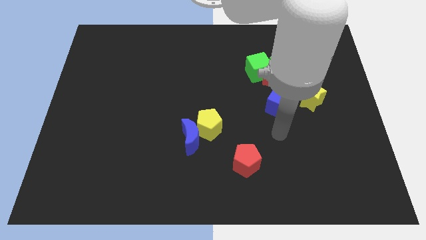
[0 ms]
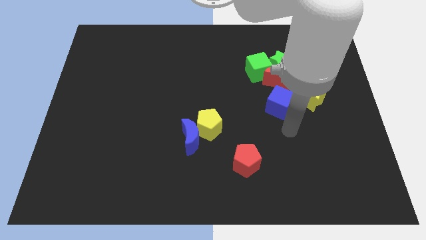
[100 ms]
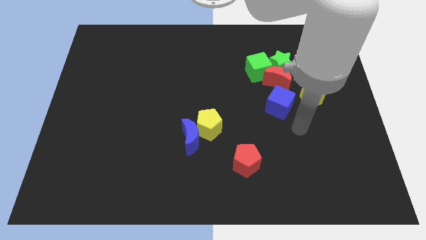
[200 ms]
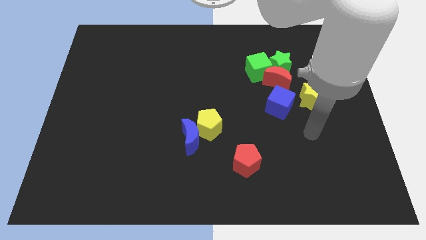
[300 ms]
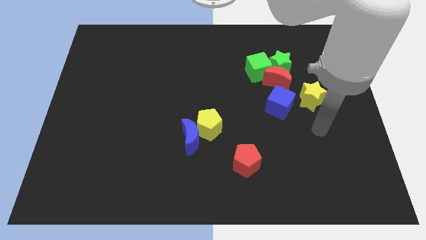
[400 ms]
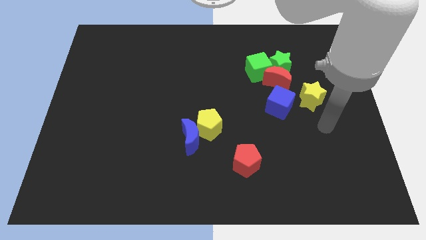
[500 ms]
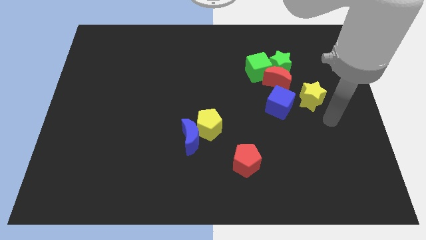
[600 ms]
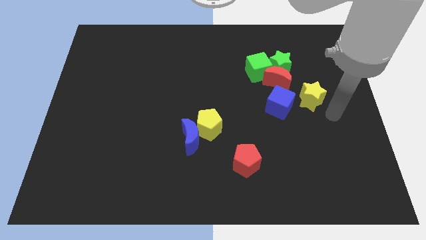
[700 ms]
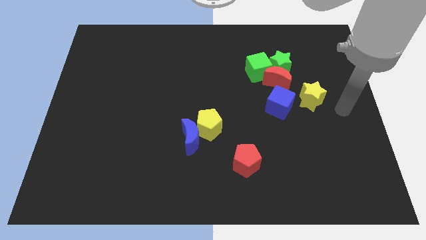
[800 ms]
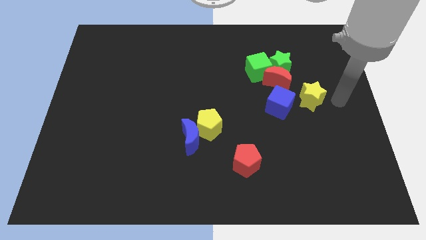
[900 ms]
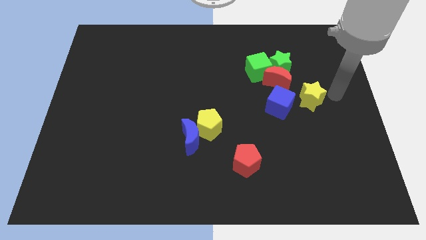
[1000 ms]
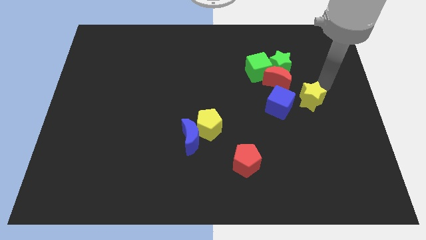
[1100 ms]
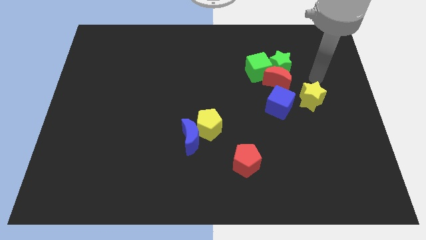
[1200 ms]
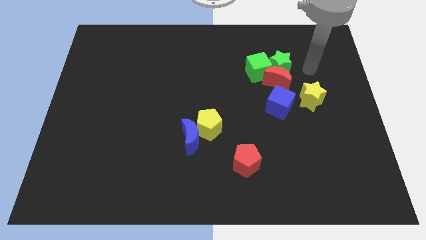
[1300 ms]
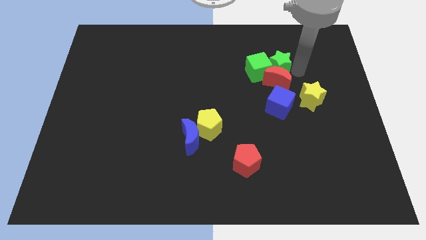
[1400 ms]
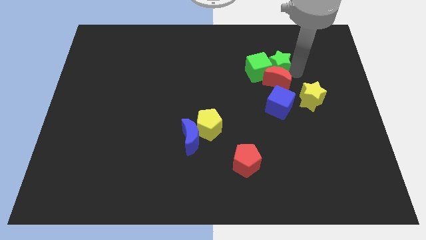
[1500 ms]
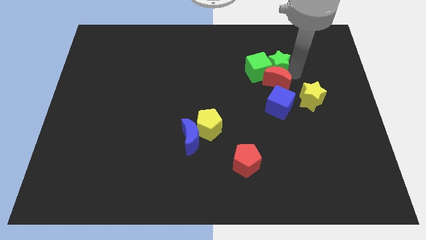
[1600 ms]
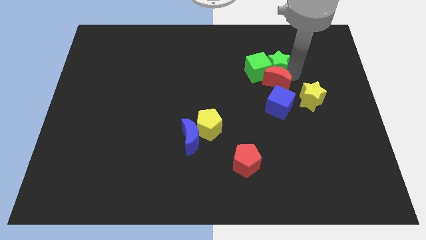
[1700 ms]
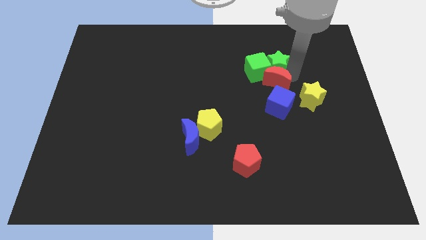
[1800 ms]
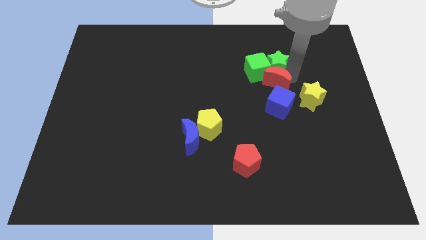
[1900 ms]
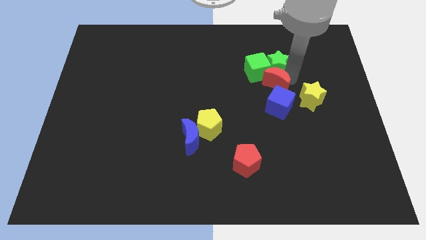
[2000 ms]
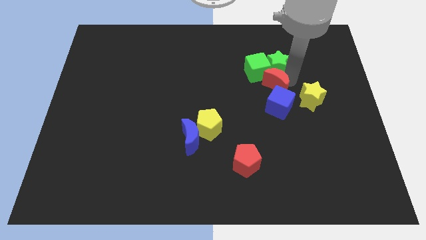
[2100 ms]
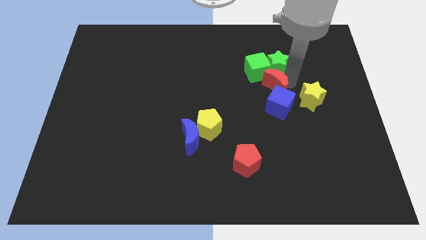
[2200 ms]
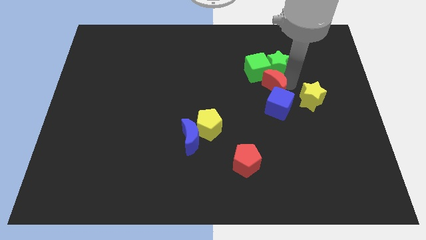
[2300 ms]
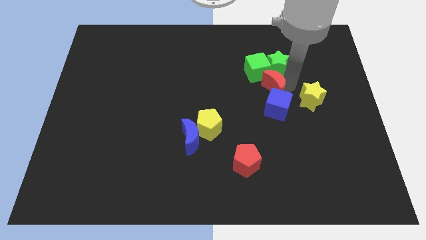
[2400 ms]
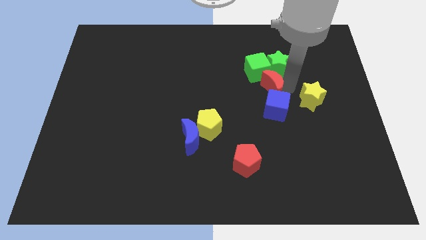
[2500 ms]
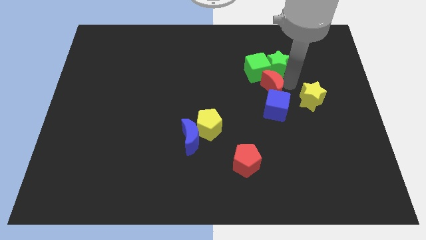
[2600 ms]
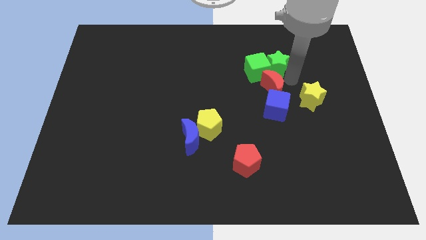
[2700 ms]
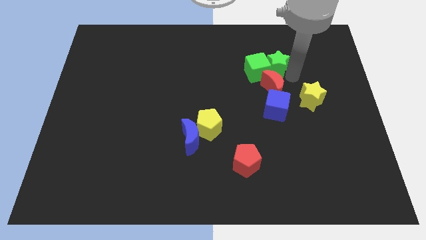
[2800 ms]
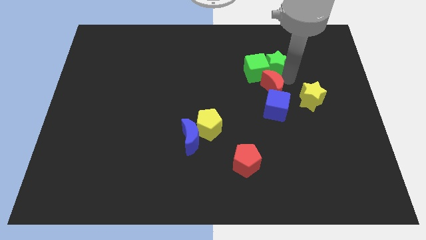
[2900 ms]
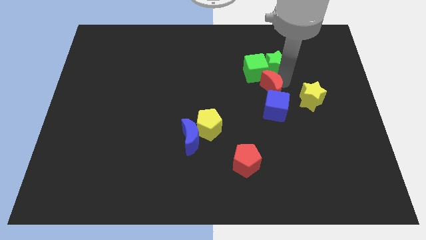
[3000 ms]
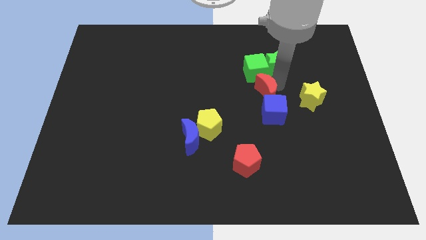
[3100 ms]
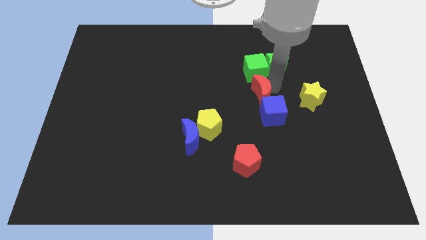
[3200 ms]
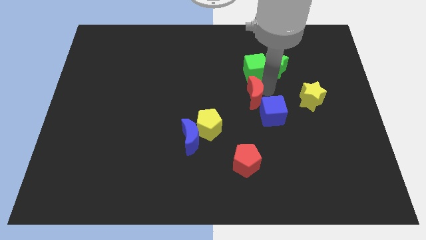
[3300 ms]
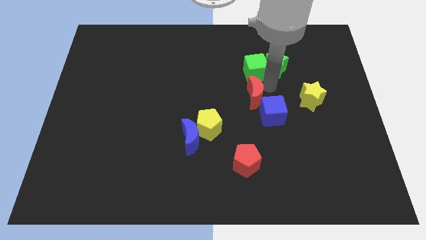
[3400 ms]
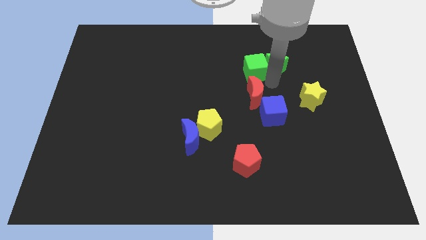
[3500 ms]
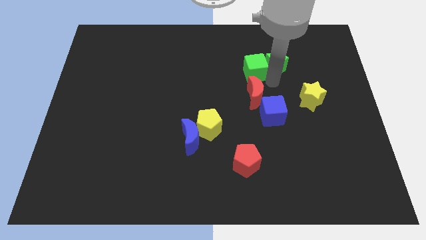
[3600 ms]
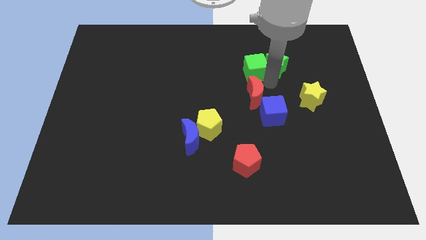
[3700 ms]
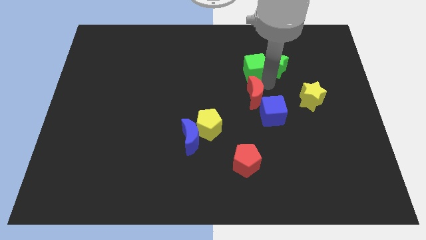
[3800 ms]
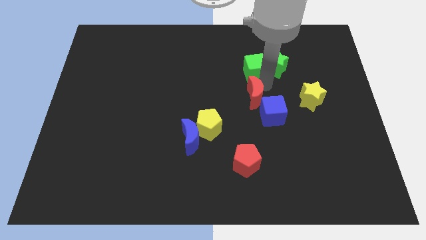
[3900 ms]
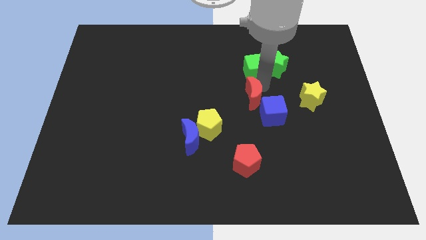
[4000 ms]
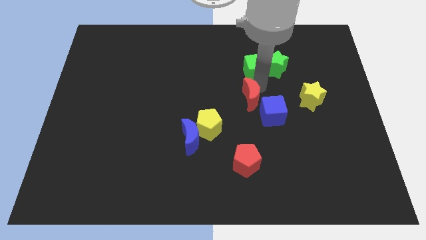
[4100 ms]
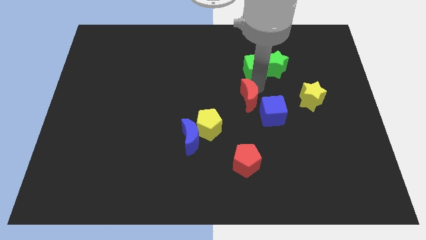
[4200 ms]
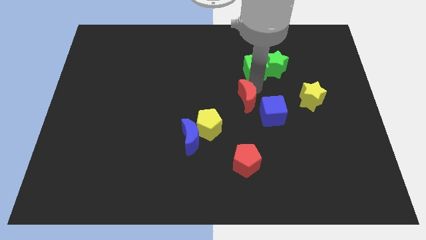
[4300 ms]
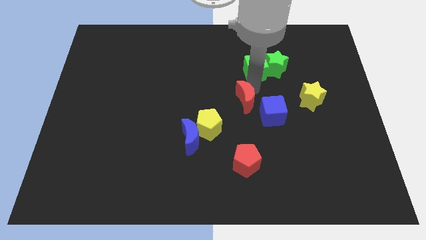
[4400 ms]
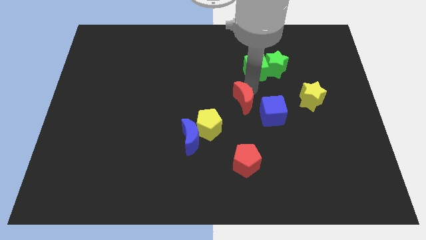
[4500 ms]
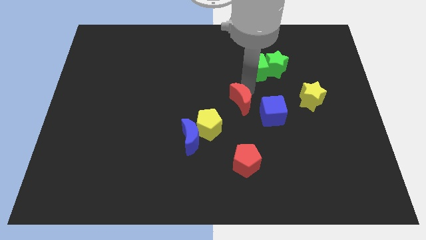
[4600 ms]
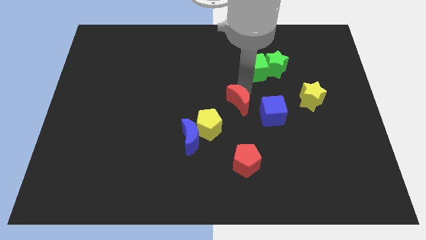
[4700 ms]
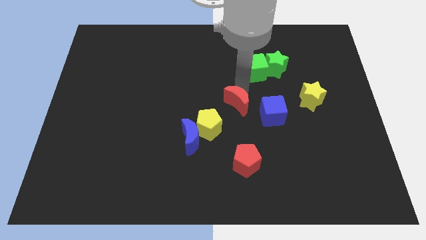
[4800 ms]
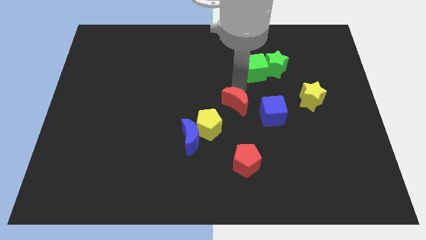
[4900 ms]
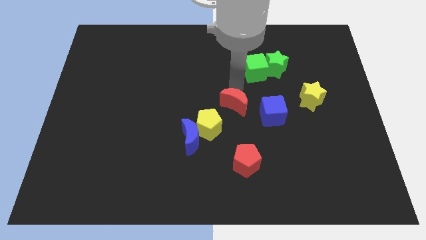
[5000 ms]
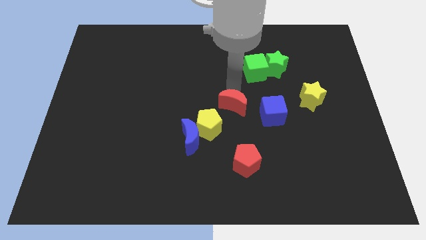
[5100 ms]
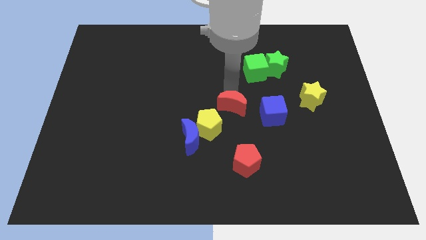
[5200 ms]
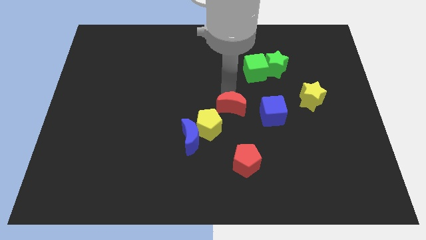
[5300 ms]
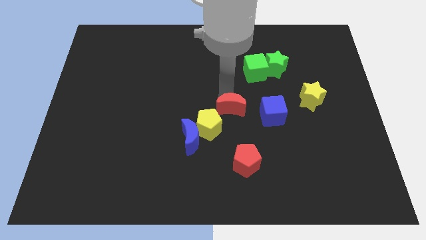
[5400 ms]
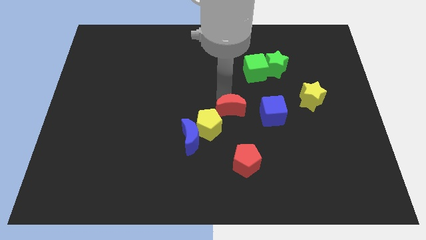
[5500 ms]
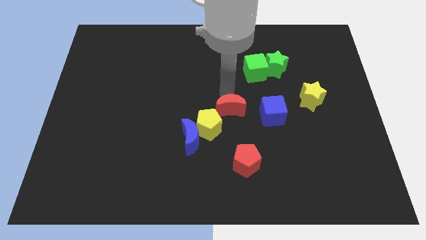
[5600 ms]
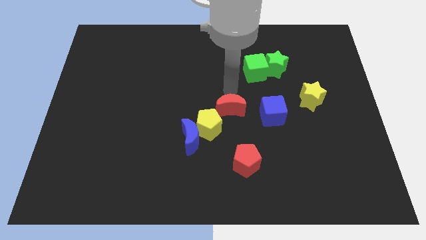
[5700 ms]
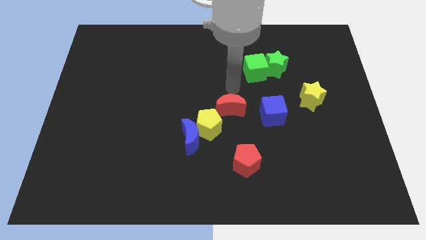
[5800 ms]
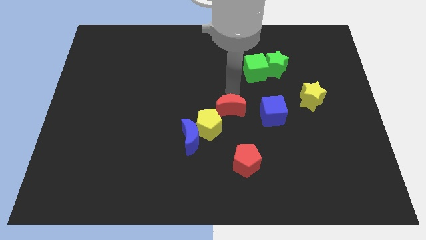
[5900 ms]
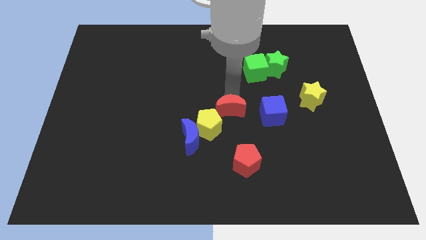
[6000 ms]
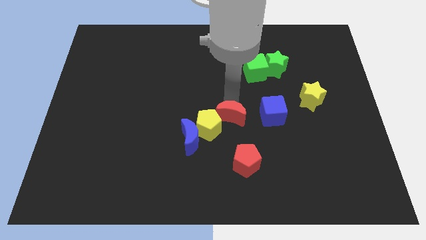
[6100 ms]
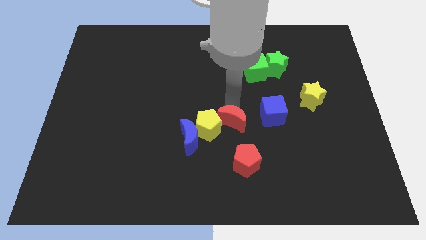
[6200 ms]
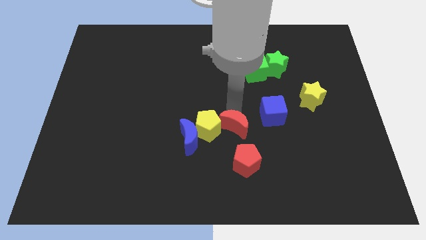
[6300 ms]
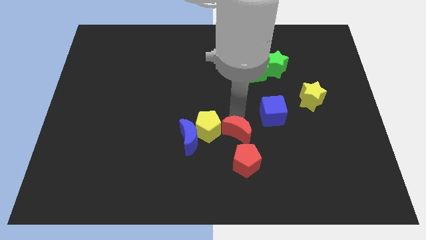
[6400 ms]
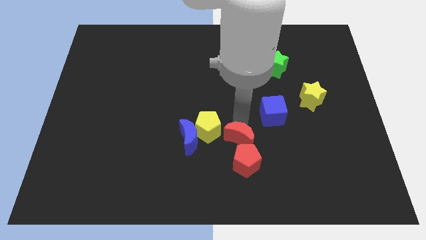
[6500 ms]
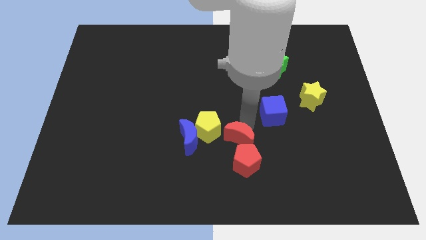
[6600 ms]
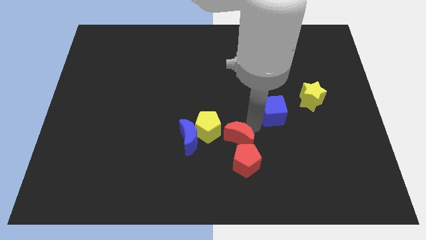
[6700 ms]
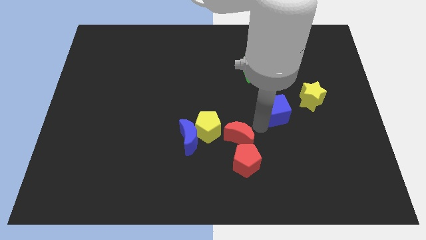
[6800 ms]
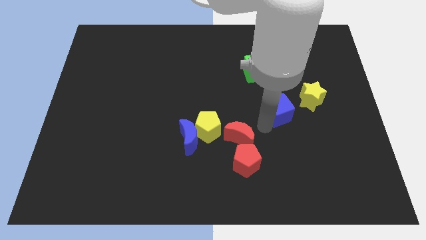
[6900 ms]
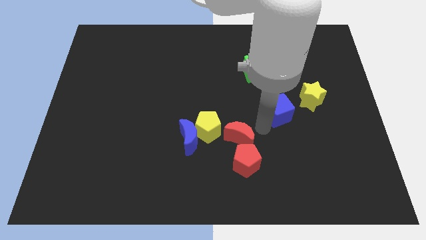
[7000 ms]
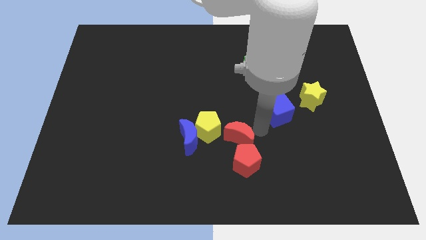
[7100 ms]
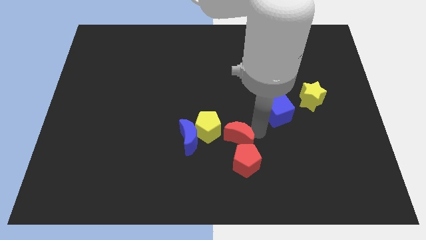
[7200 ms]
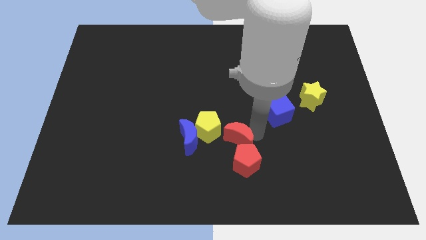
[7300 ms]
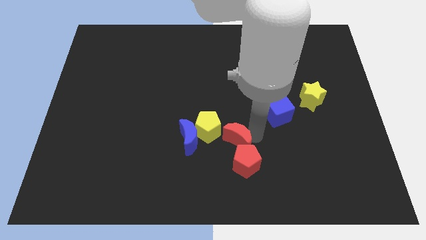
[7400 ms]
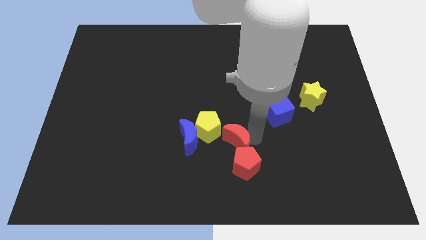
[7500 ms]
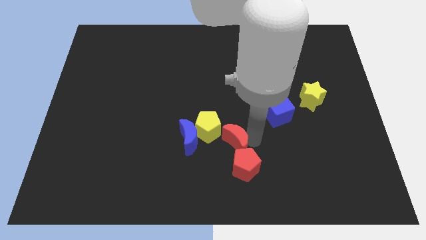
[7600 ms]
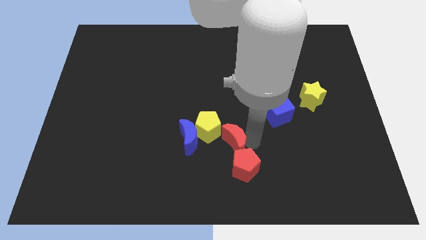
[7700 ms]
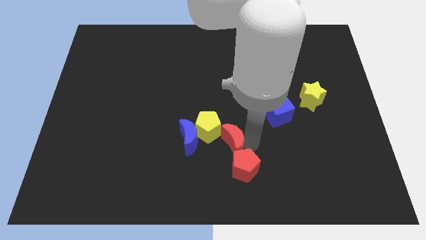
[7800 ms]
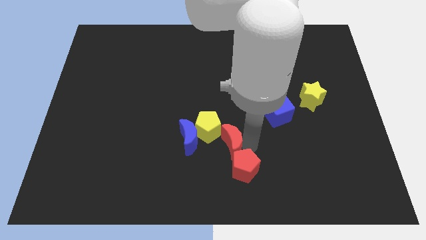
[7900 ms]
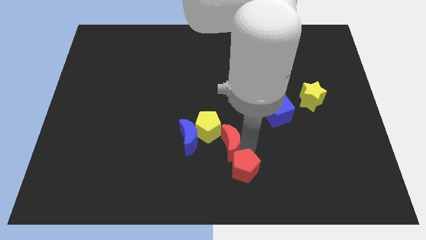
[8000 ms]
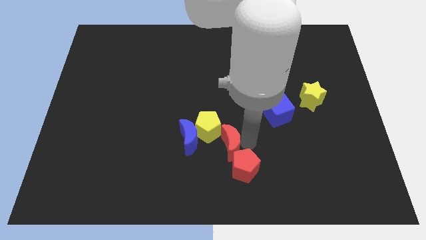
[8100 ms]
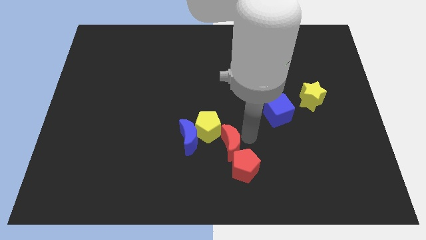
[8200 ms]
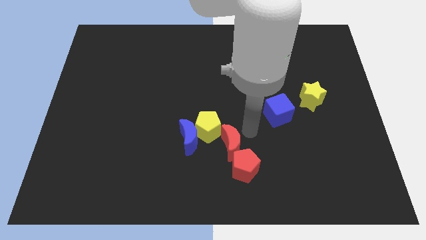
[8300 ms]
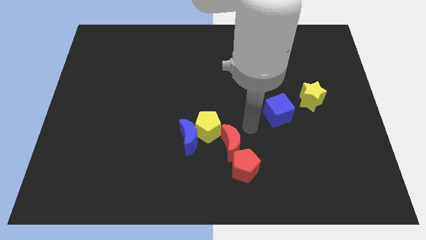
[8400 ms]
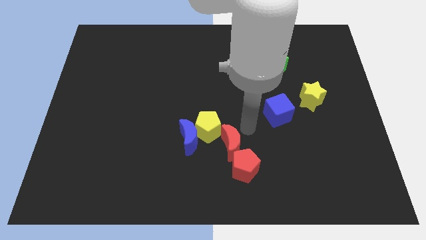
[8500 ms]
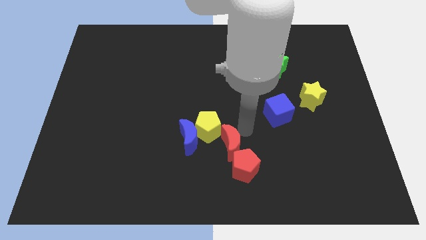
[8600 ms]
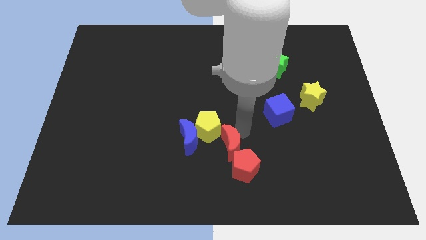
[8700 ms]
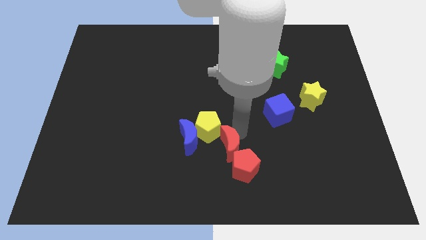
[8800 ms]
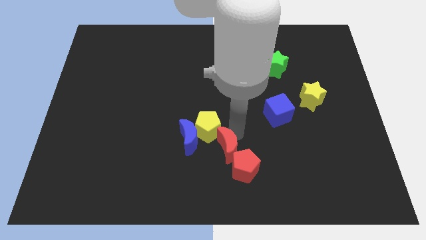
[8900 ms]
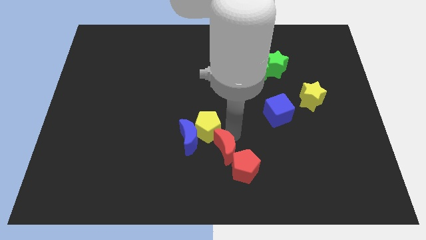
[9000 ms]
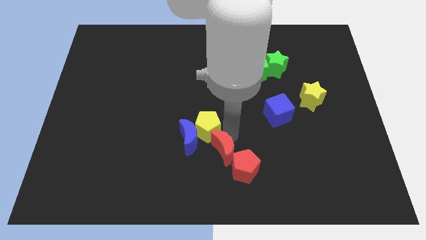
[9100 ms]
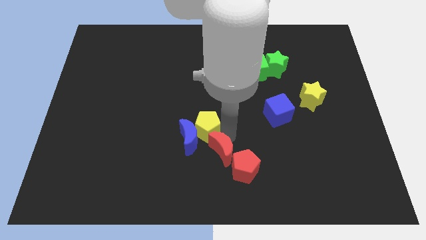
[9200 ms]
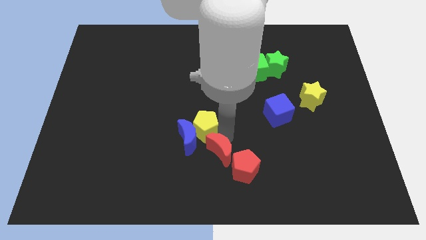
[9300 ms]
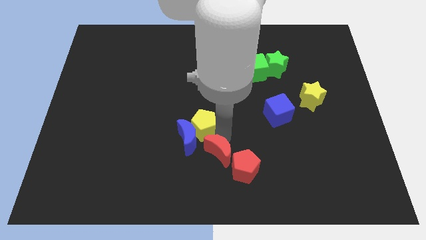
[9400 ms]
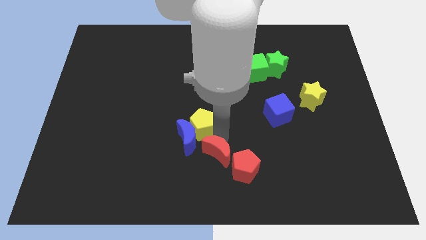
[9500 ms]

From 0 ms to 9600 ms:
push the red moon to the bottom
